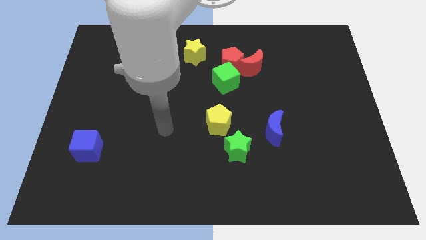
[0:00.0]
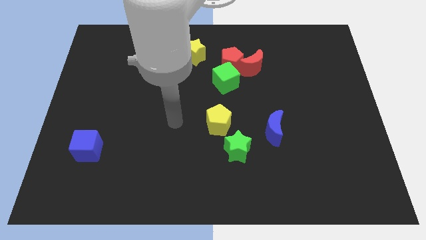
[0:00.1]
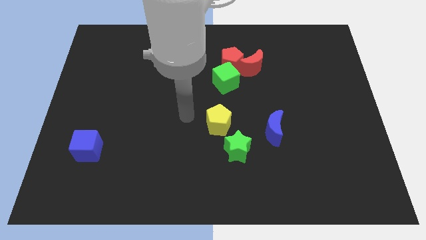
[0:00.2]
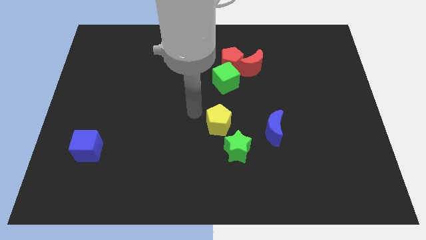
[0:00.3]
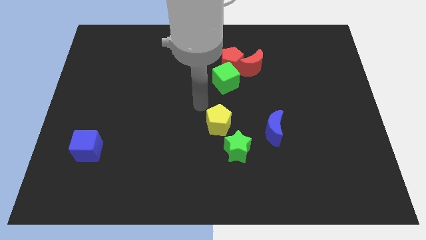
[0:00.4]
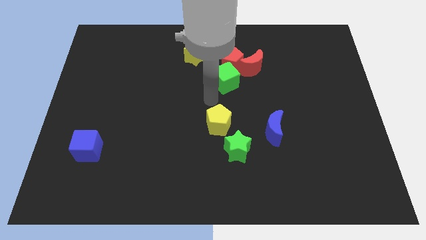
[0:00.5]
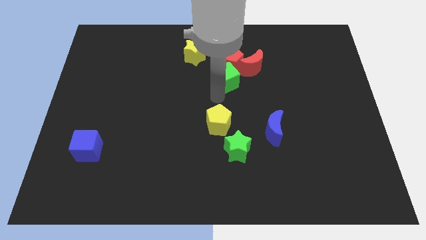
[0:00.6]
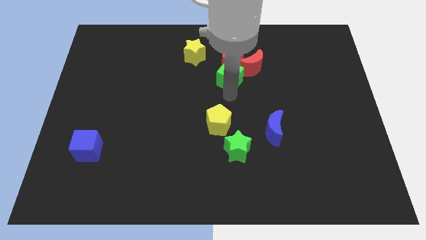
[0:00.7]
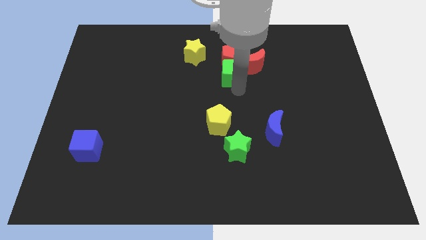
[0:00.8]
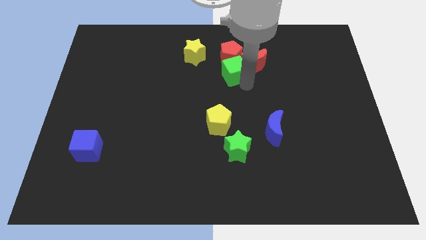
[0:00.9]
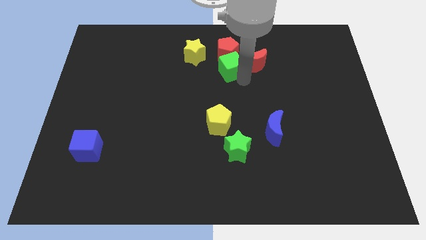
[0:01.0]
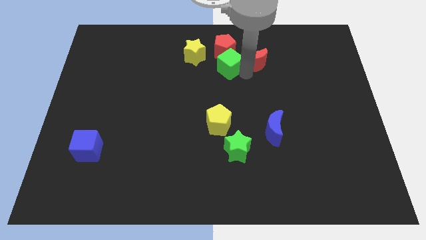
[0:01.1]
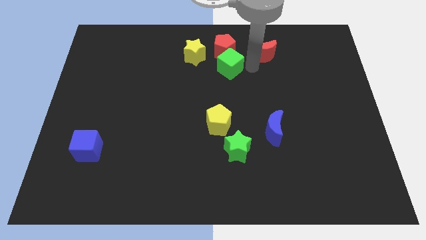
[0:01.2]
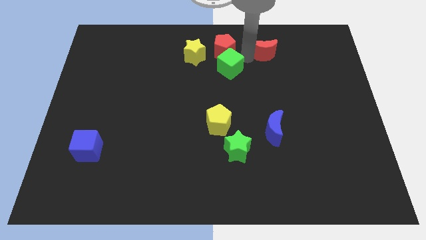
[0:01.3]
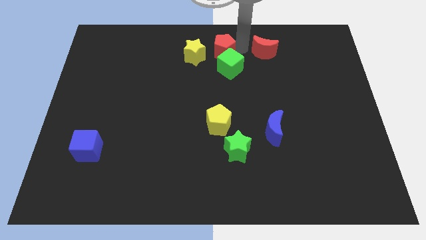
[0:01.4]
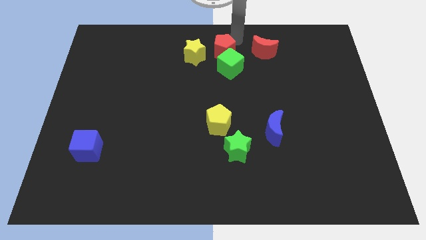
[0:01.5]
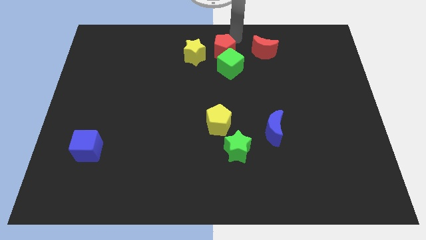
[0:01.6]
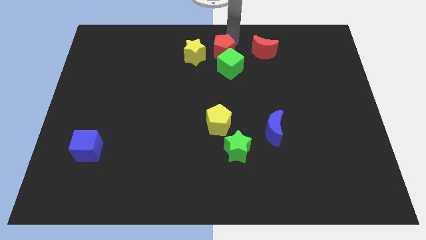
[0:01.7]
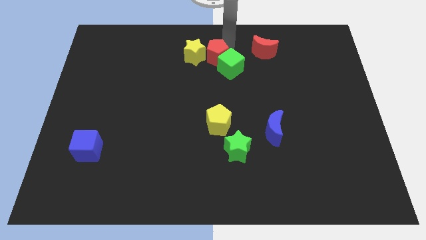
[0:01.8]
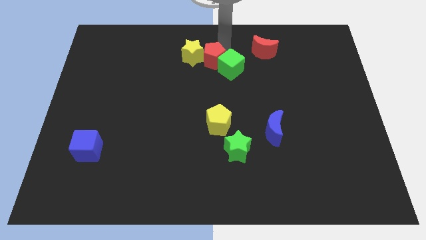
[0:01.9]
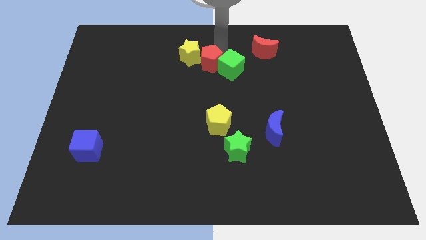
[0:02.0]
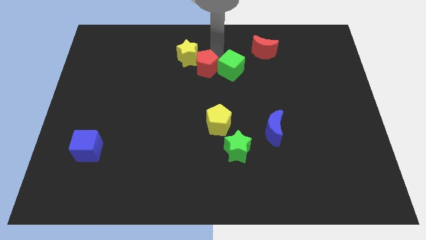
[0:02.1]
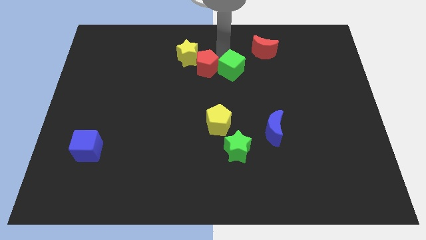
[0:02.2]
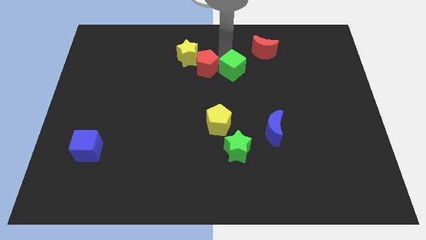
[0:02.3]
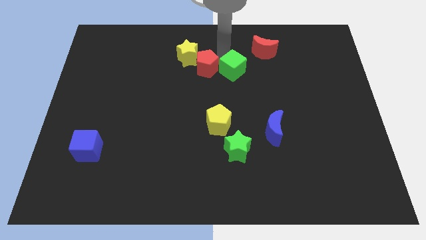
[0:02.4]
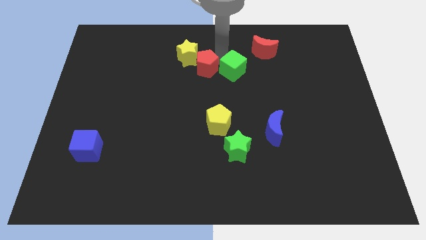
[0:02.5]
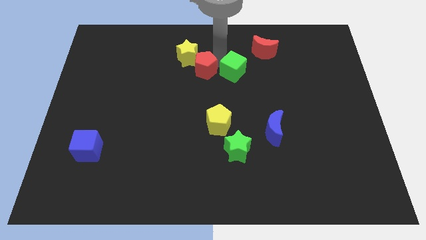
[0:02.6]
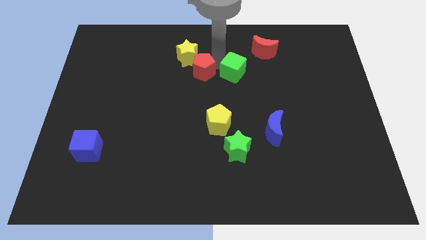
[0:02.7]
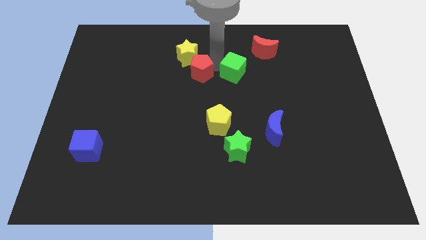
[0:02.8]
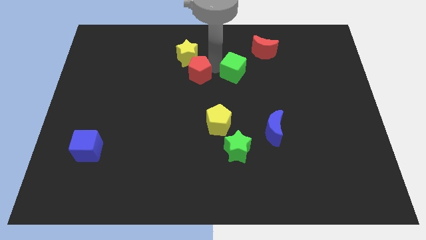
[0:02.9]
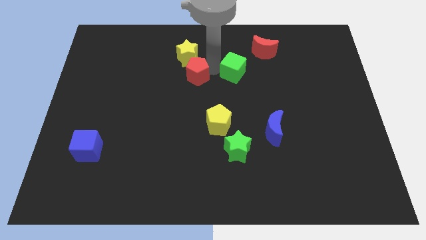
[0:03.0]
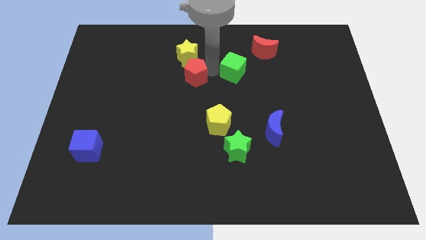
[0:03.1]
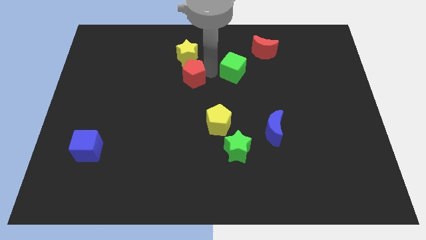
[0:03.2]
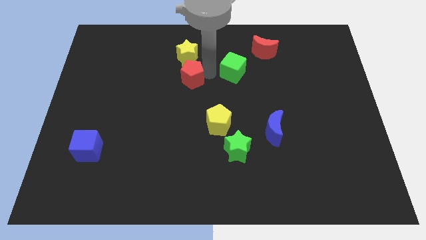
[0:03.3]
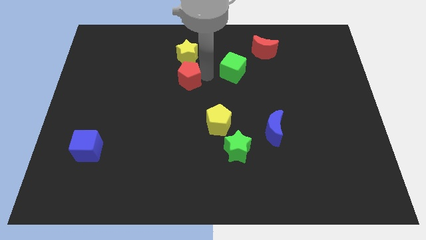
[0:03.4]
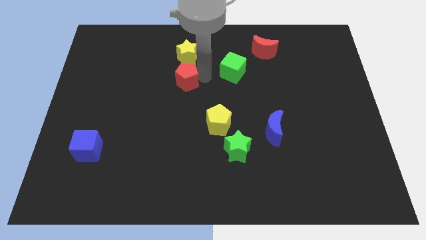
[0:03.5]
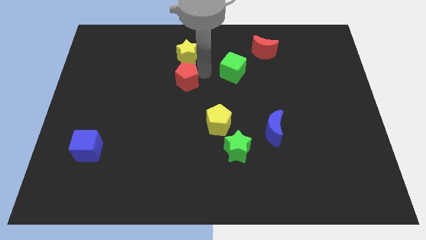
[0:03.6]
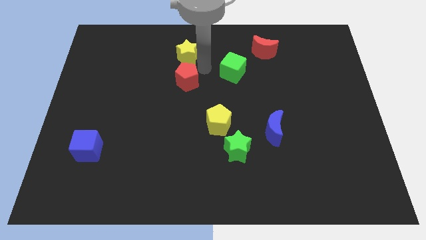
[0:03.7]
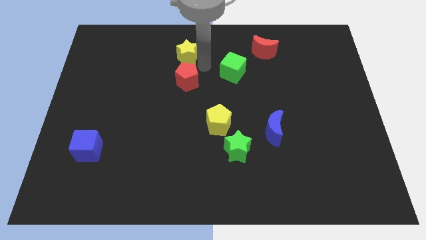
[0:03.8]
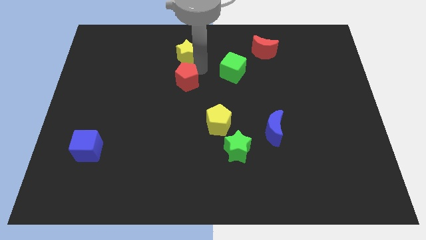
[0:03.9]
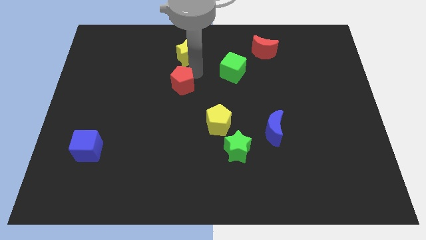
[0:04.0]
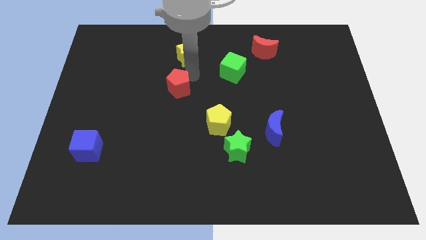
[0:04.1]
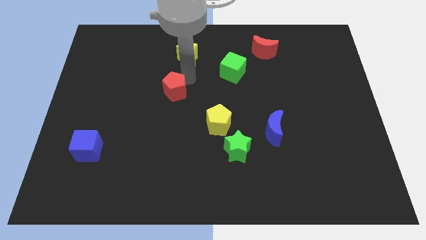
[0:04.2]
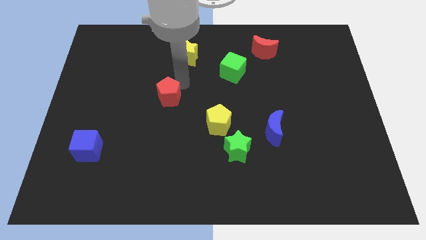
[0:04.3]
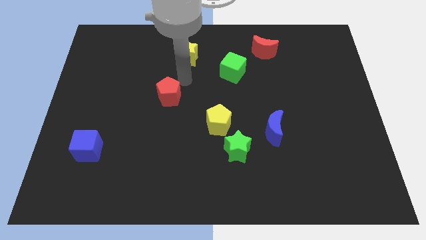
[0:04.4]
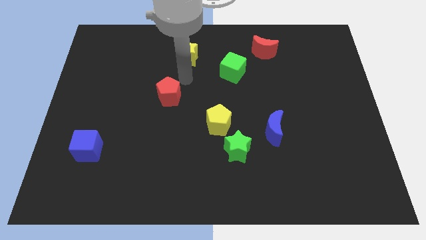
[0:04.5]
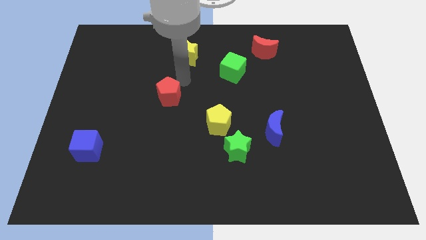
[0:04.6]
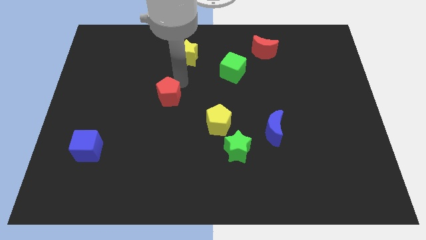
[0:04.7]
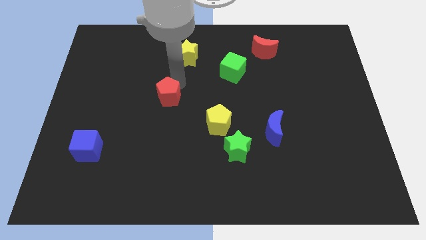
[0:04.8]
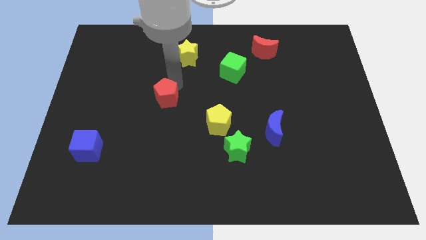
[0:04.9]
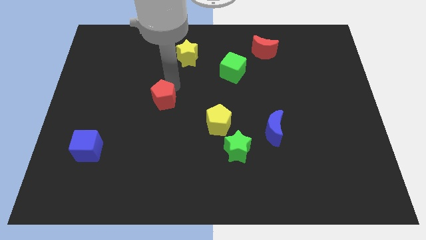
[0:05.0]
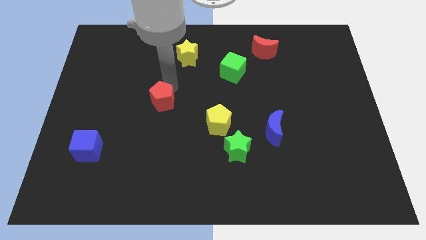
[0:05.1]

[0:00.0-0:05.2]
slide the red pentagon down and to the left diagonally

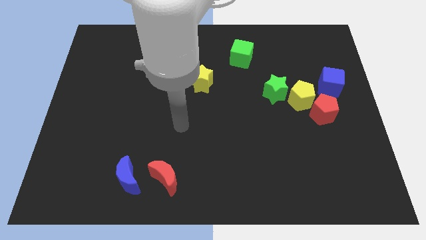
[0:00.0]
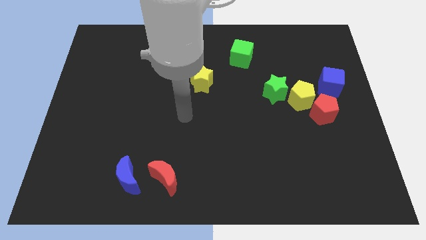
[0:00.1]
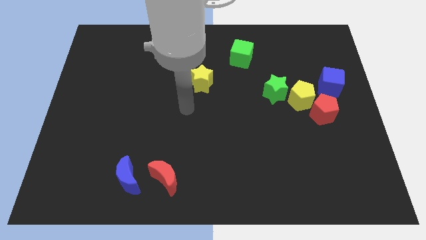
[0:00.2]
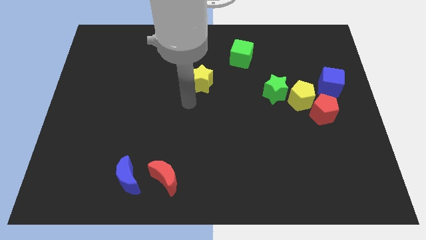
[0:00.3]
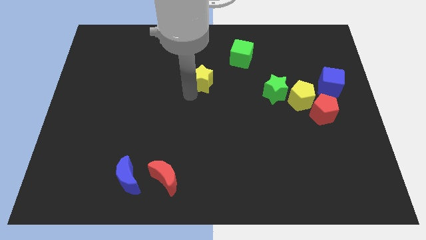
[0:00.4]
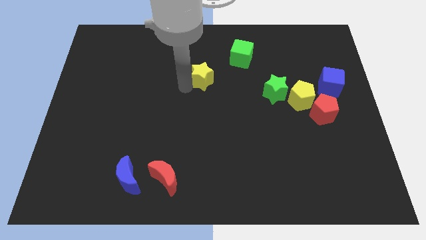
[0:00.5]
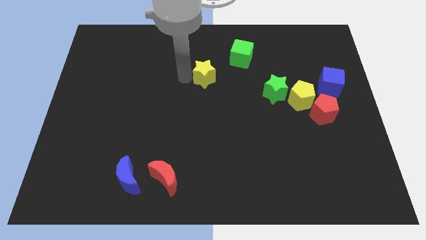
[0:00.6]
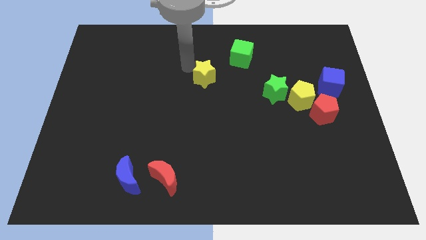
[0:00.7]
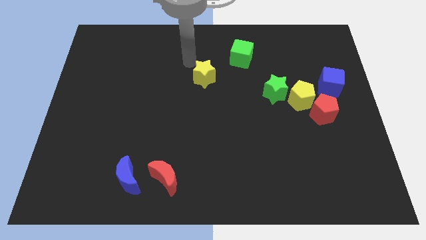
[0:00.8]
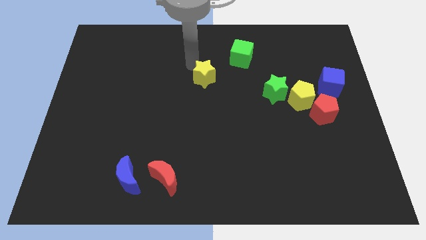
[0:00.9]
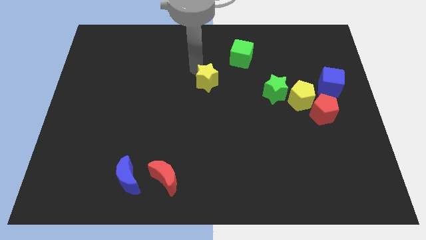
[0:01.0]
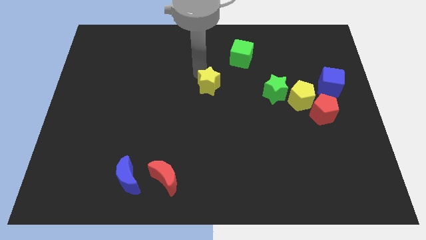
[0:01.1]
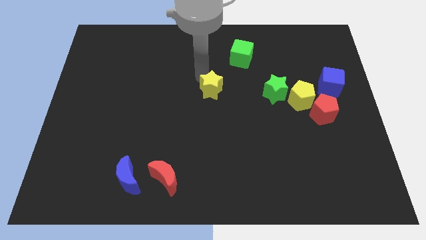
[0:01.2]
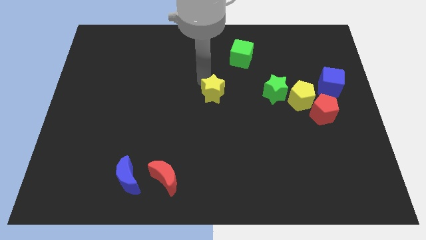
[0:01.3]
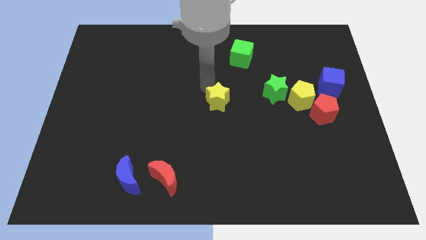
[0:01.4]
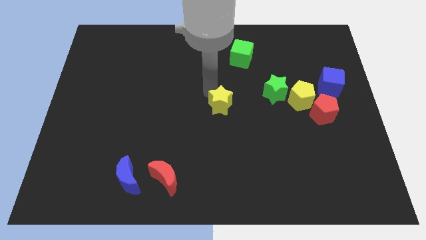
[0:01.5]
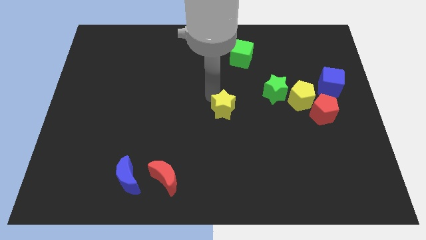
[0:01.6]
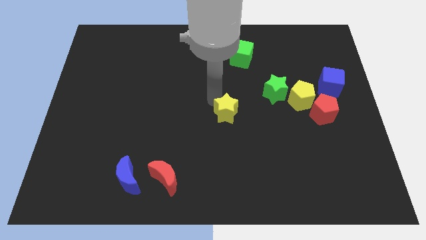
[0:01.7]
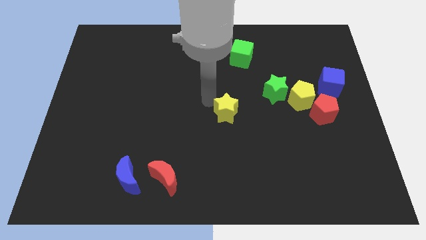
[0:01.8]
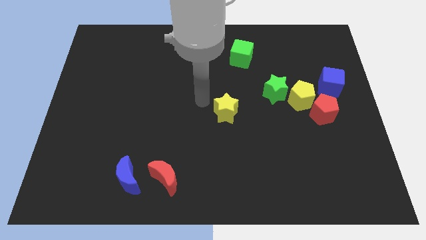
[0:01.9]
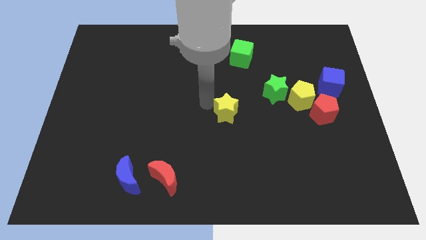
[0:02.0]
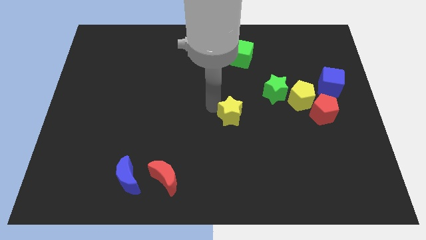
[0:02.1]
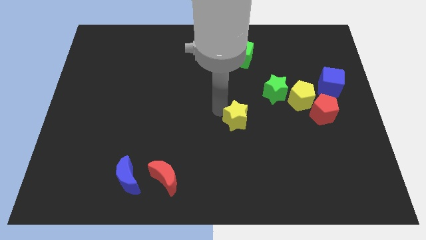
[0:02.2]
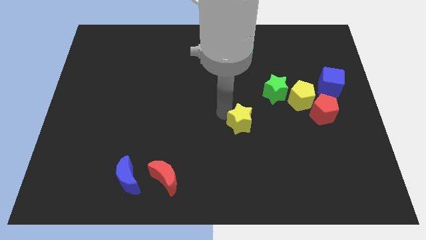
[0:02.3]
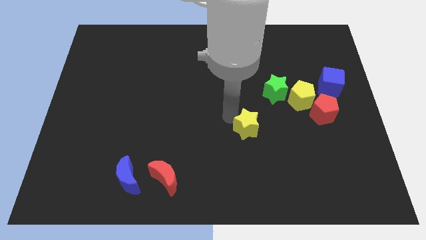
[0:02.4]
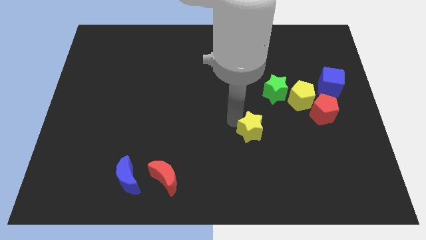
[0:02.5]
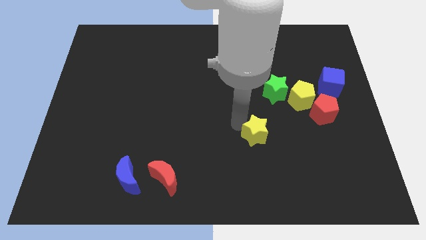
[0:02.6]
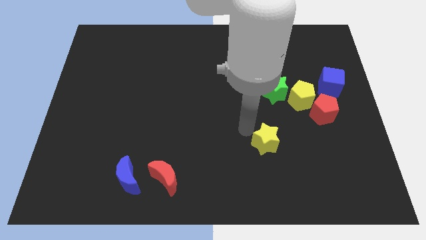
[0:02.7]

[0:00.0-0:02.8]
move the yellow star down and then to the right

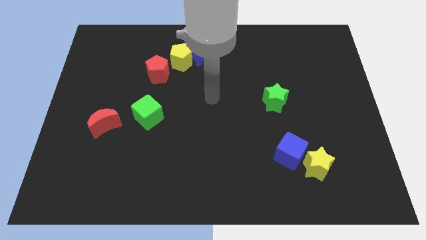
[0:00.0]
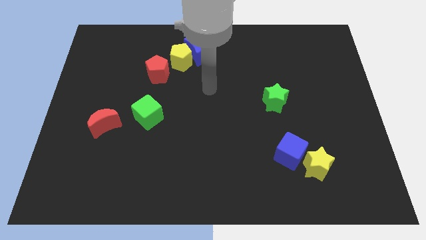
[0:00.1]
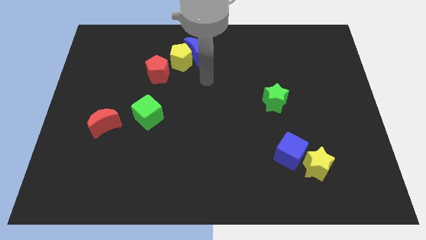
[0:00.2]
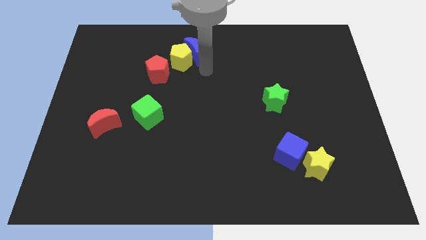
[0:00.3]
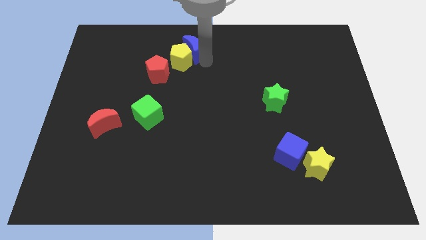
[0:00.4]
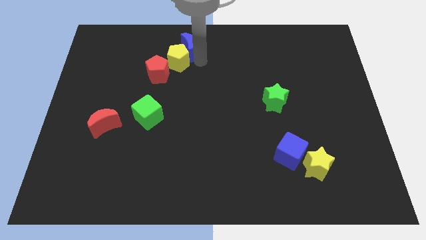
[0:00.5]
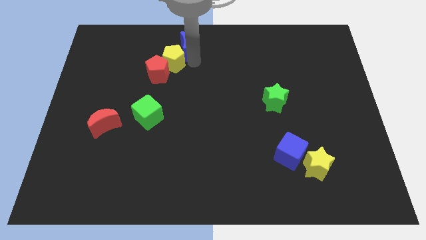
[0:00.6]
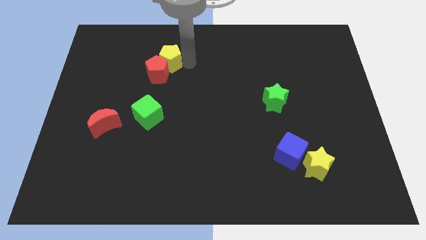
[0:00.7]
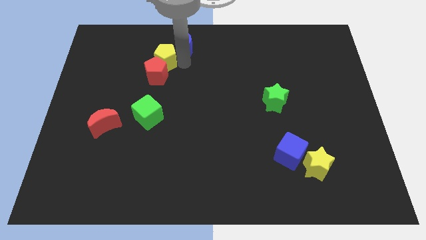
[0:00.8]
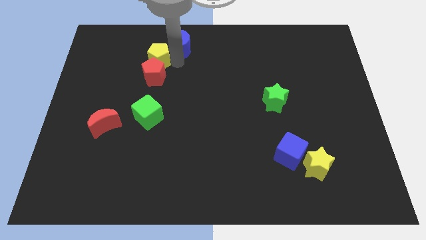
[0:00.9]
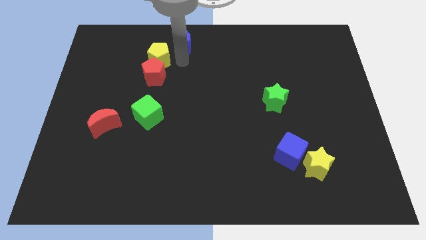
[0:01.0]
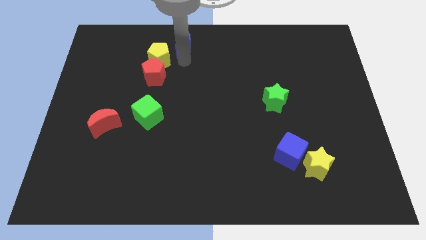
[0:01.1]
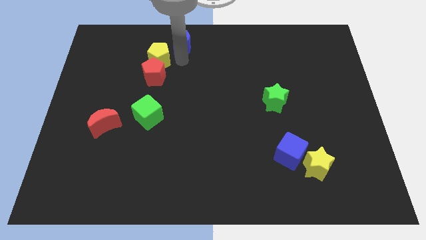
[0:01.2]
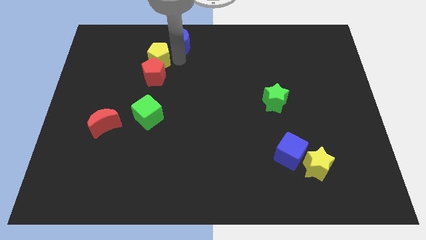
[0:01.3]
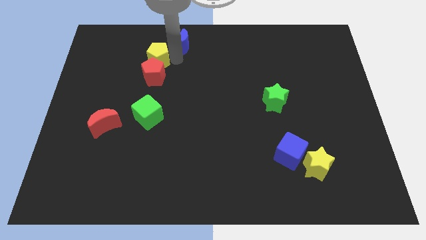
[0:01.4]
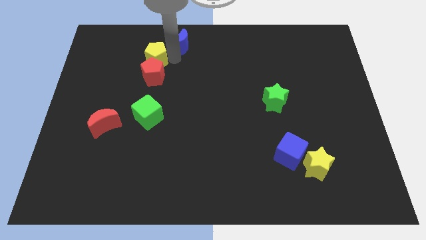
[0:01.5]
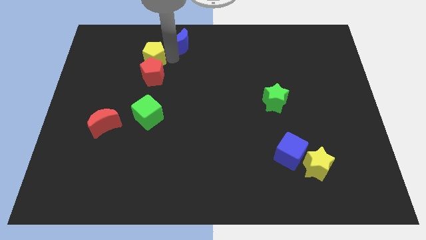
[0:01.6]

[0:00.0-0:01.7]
push the yellow pentagon somewhat to the left
